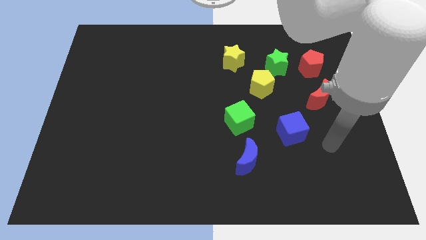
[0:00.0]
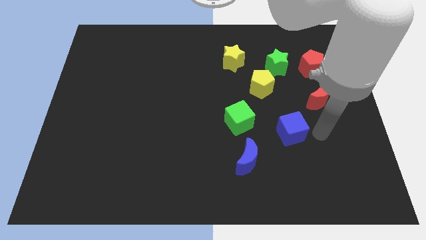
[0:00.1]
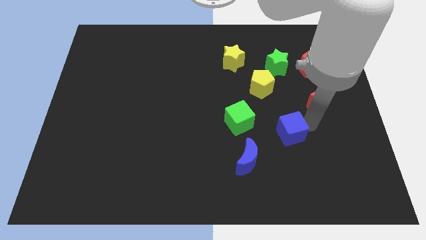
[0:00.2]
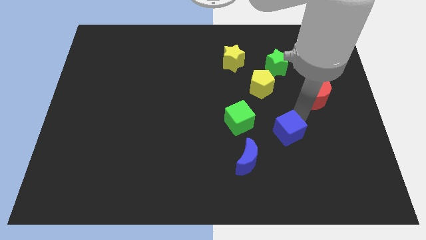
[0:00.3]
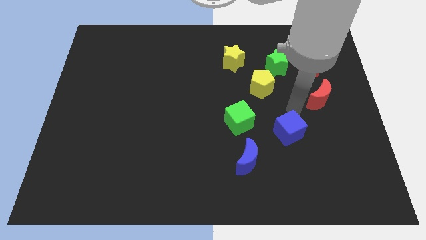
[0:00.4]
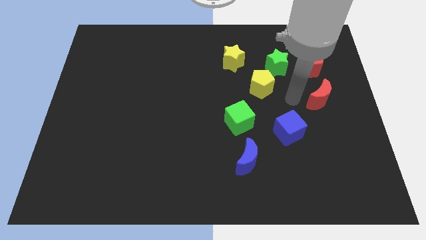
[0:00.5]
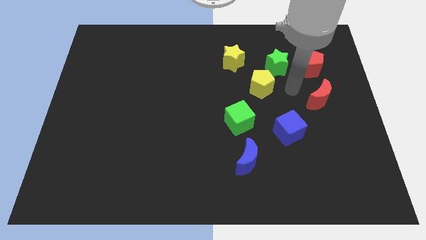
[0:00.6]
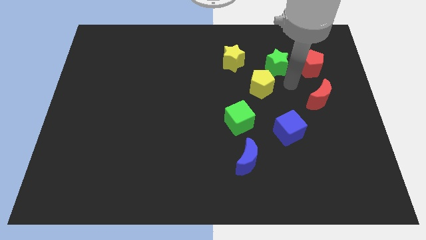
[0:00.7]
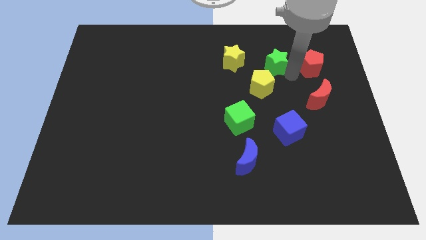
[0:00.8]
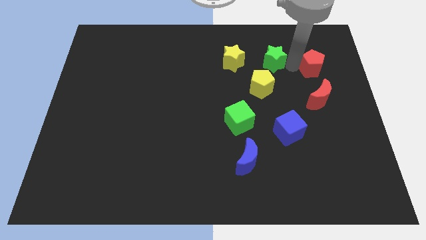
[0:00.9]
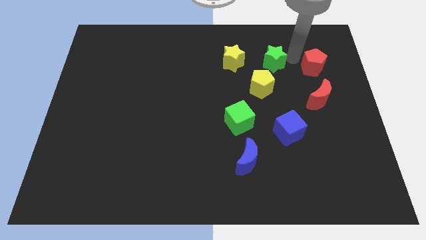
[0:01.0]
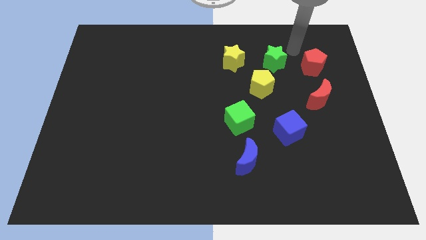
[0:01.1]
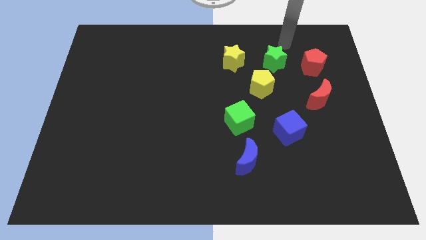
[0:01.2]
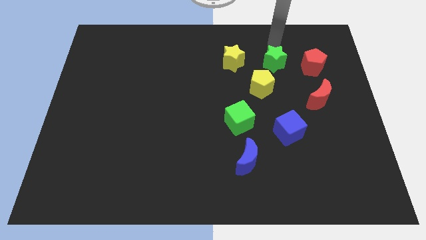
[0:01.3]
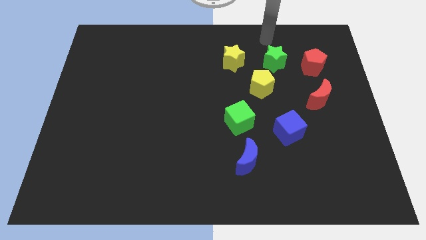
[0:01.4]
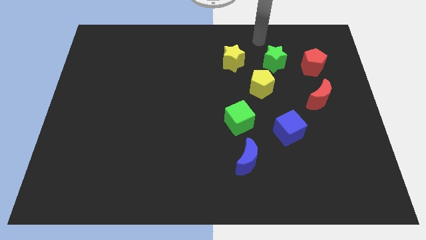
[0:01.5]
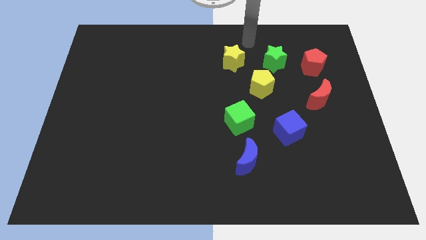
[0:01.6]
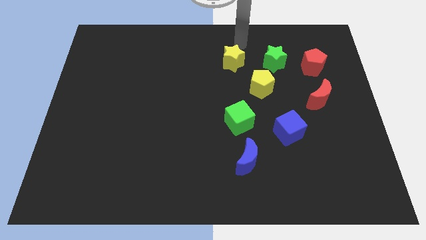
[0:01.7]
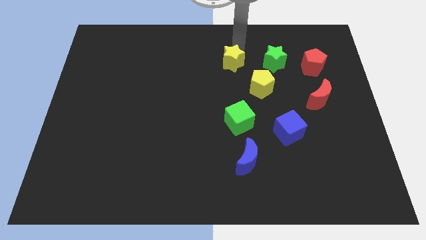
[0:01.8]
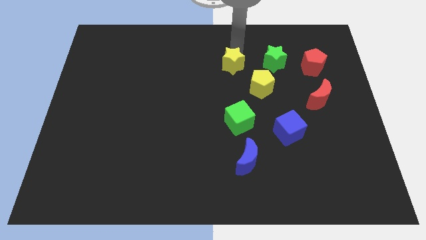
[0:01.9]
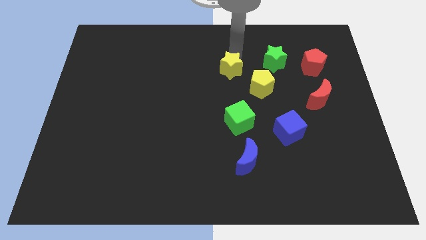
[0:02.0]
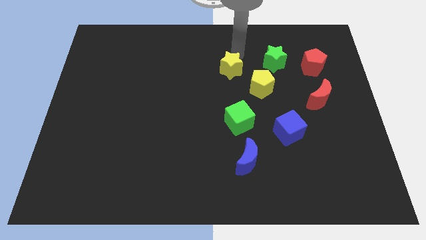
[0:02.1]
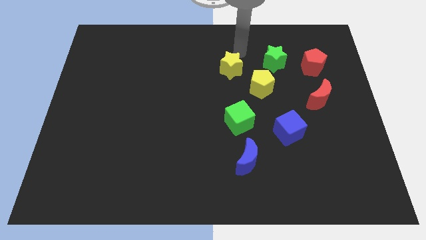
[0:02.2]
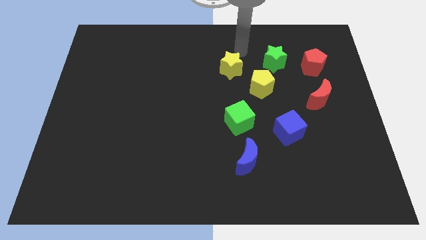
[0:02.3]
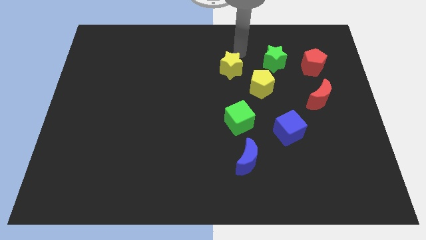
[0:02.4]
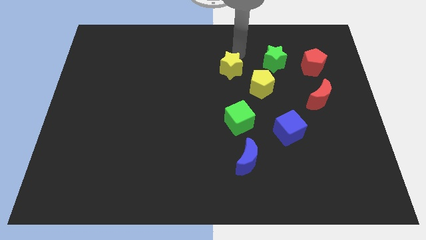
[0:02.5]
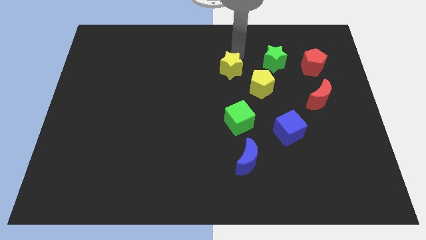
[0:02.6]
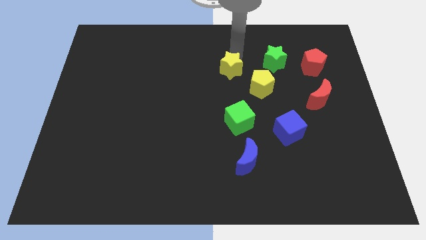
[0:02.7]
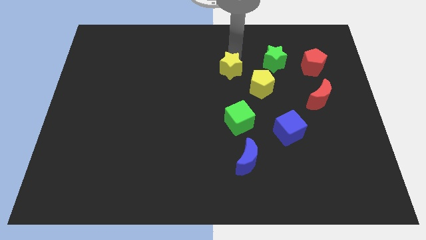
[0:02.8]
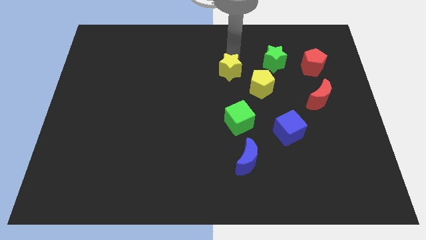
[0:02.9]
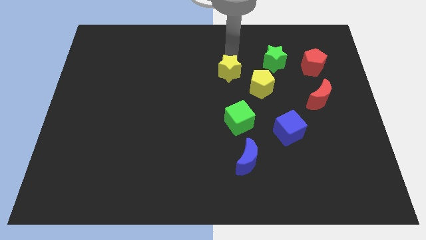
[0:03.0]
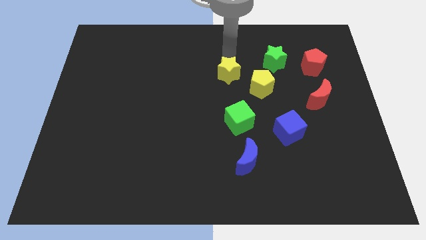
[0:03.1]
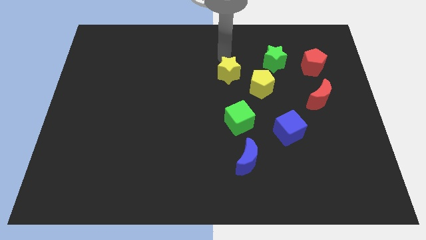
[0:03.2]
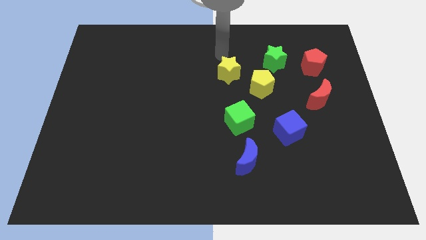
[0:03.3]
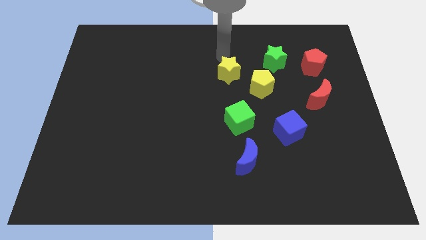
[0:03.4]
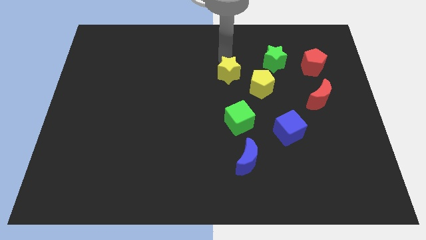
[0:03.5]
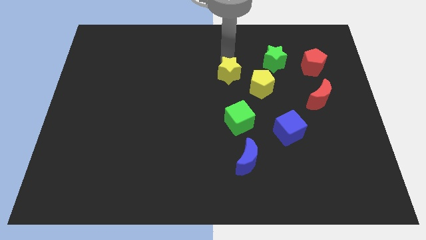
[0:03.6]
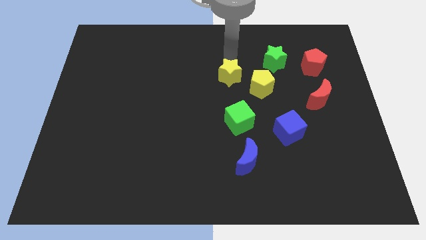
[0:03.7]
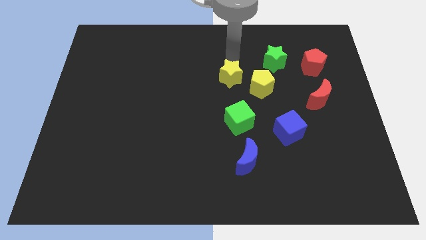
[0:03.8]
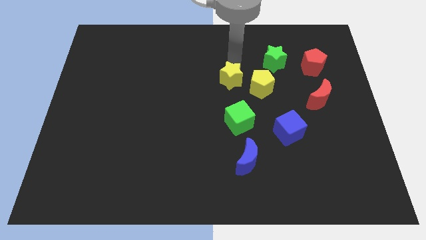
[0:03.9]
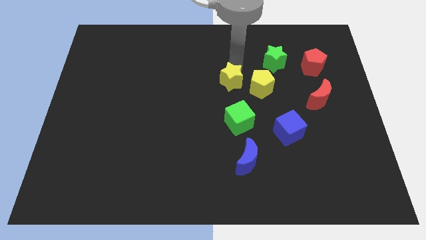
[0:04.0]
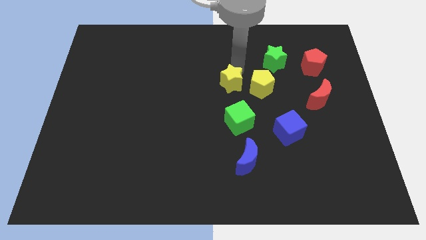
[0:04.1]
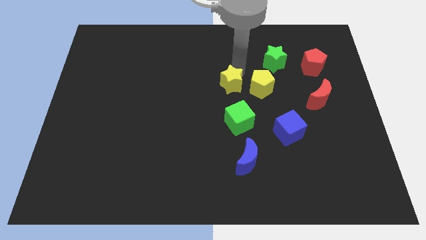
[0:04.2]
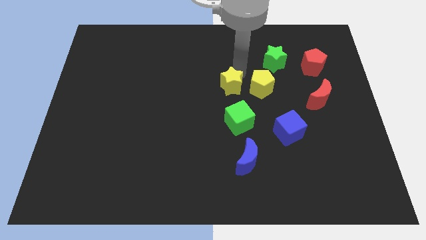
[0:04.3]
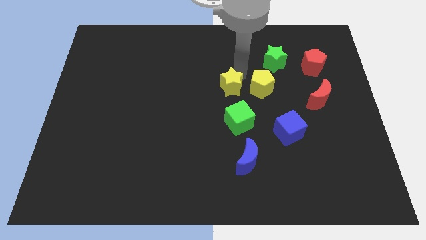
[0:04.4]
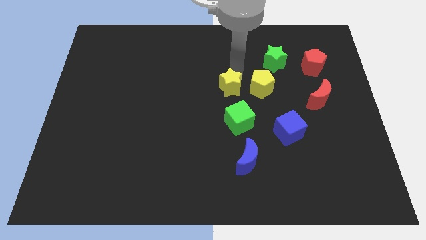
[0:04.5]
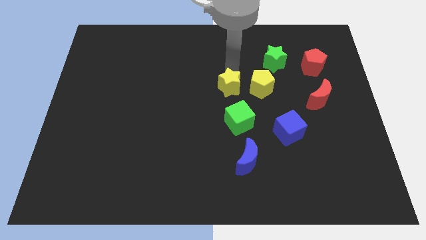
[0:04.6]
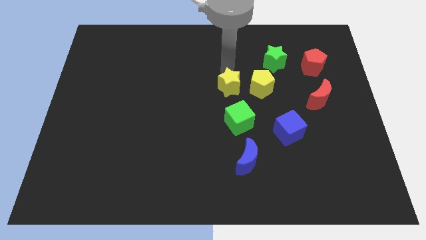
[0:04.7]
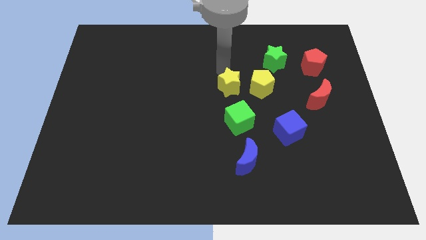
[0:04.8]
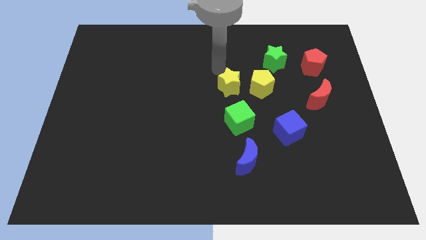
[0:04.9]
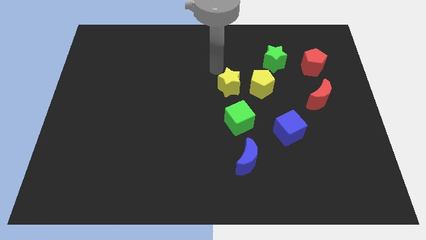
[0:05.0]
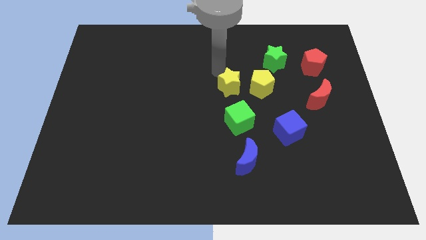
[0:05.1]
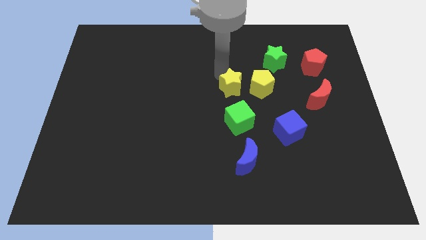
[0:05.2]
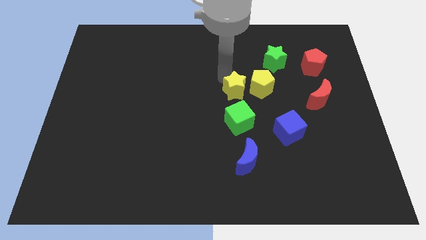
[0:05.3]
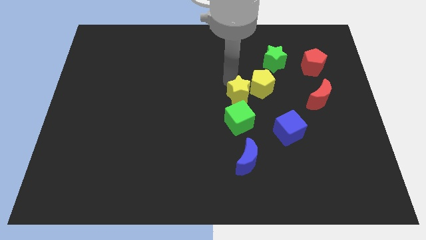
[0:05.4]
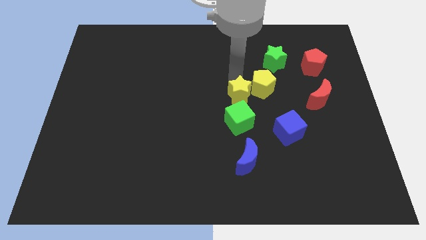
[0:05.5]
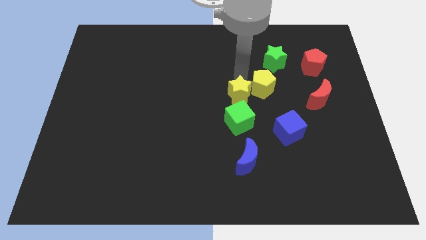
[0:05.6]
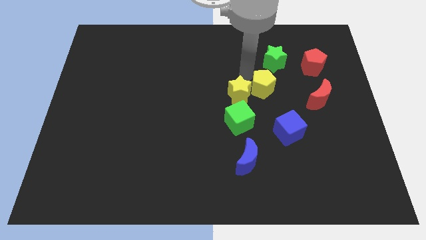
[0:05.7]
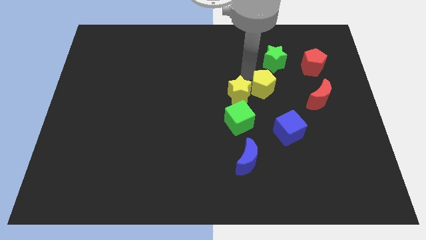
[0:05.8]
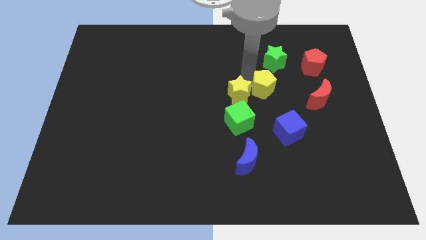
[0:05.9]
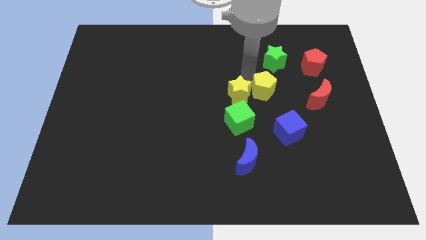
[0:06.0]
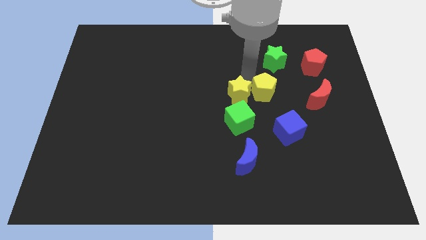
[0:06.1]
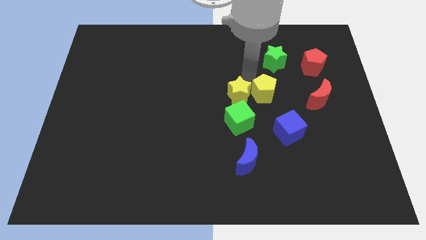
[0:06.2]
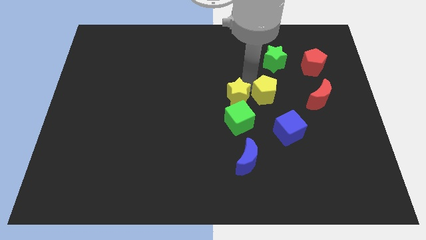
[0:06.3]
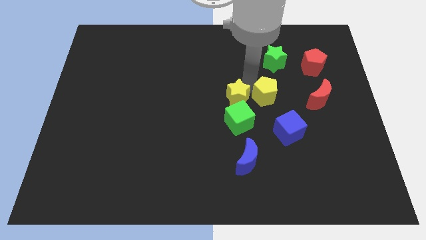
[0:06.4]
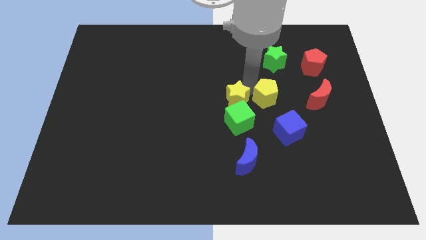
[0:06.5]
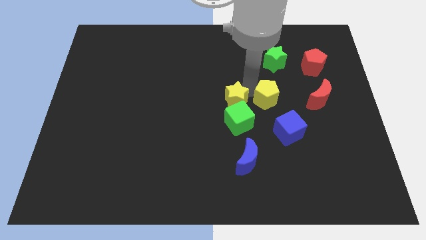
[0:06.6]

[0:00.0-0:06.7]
put the yellow star close to the green cube

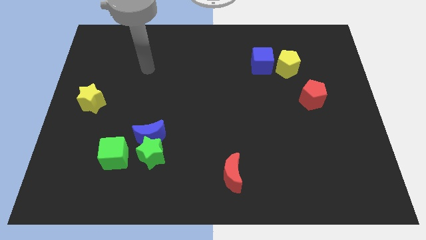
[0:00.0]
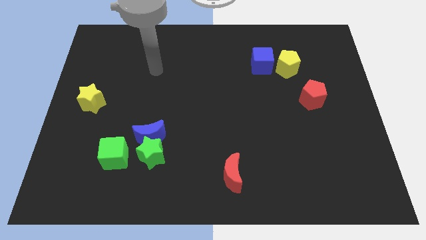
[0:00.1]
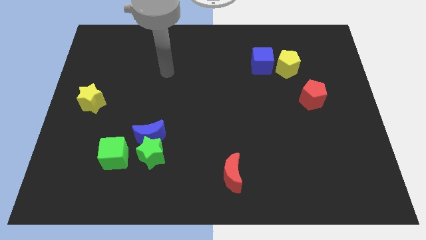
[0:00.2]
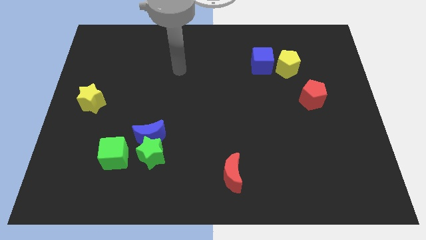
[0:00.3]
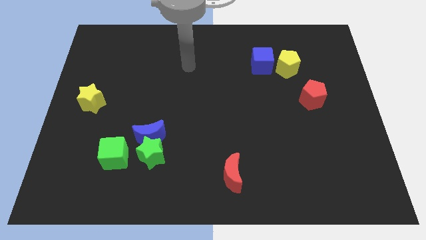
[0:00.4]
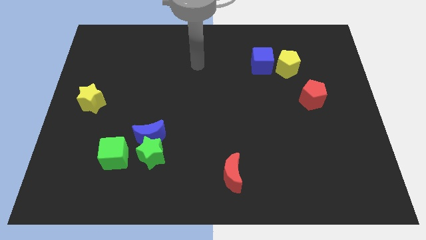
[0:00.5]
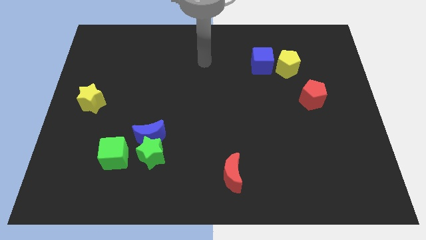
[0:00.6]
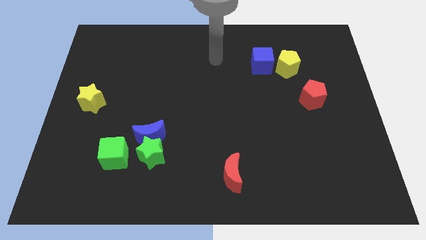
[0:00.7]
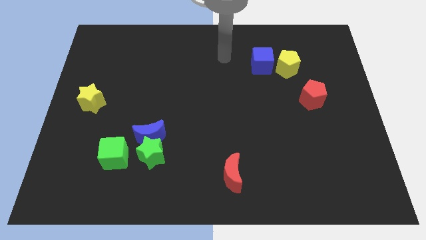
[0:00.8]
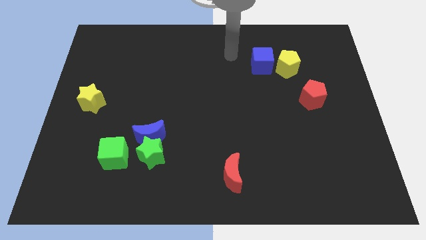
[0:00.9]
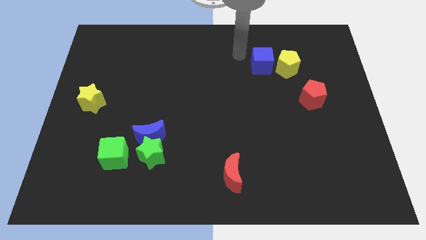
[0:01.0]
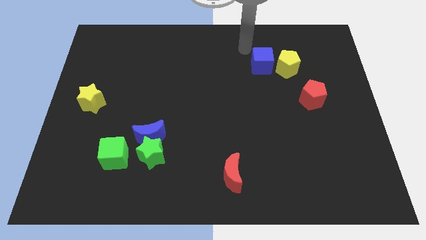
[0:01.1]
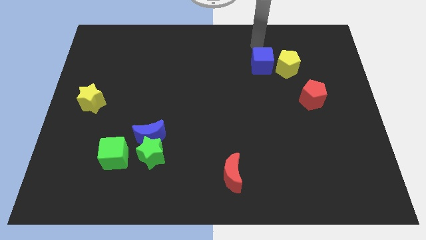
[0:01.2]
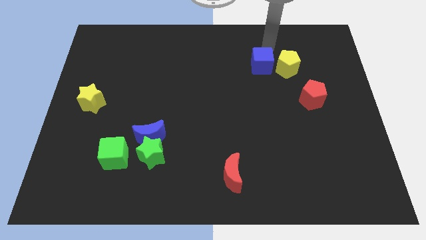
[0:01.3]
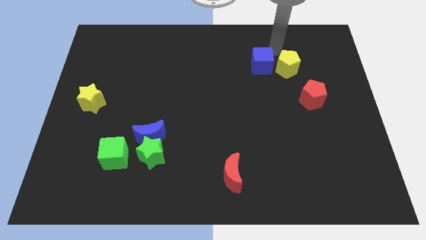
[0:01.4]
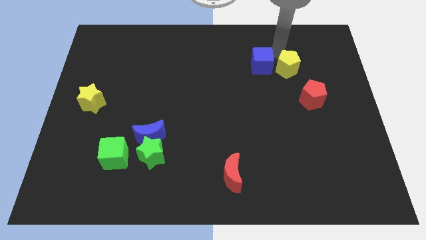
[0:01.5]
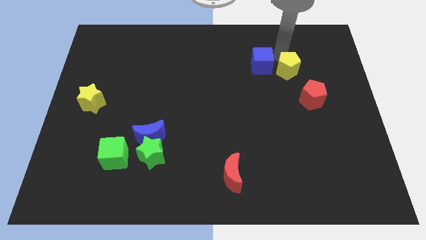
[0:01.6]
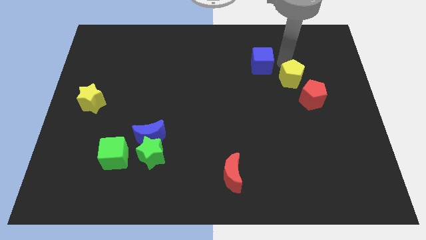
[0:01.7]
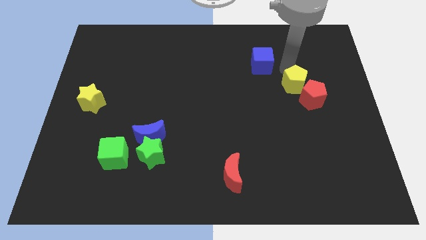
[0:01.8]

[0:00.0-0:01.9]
put the yellow pentagon towards the red pentagon
